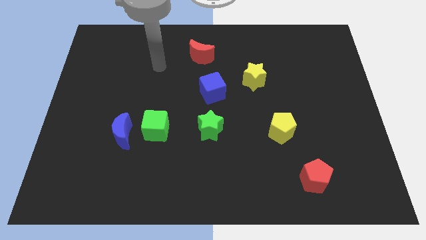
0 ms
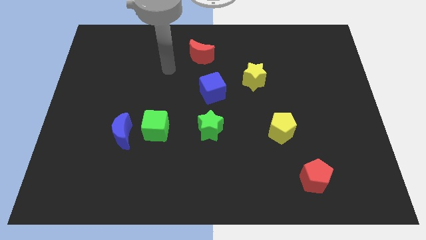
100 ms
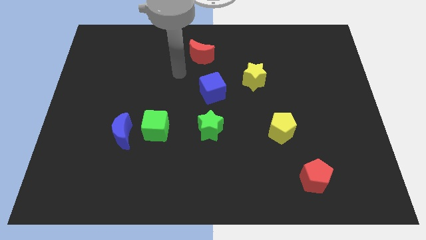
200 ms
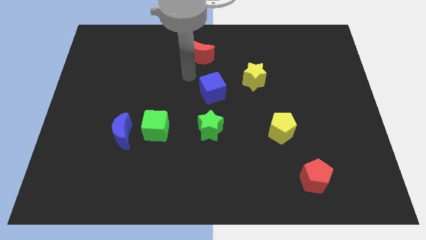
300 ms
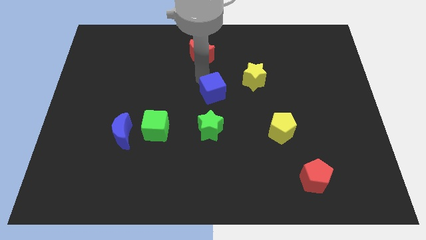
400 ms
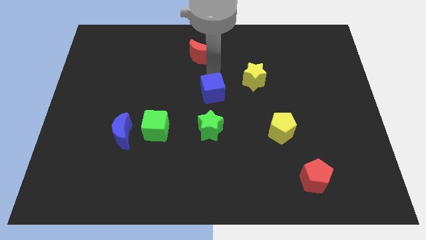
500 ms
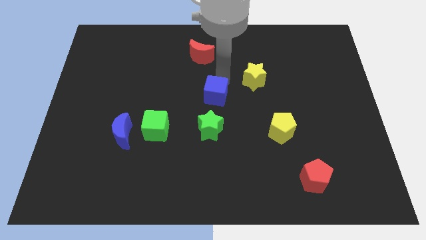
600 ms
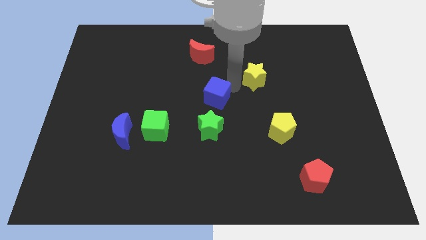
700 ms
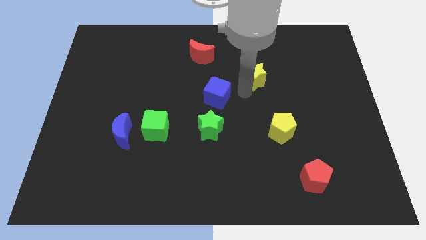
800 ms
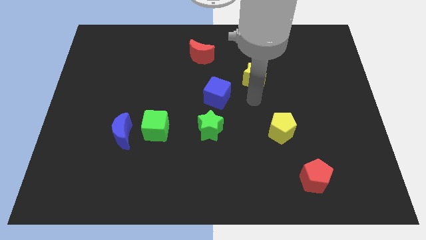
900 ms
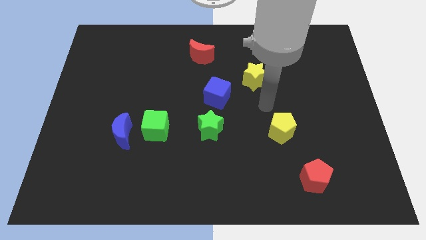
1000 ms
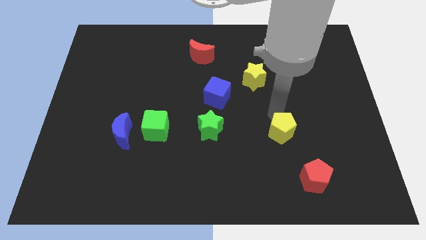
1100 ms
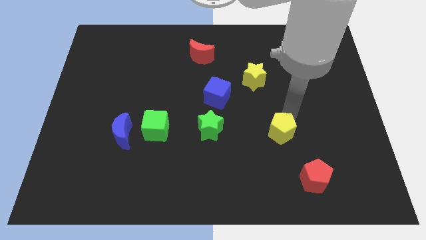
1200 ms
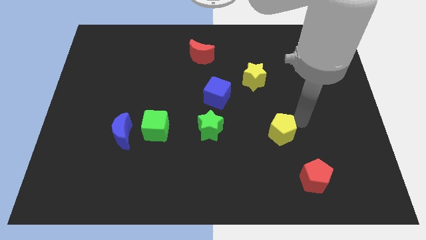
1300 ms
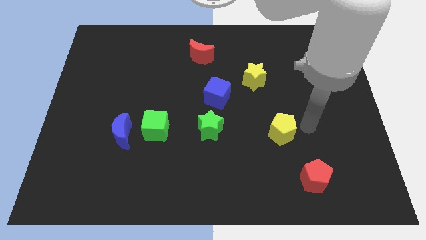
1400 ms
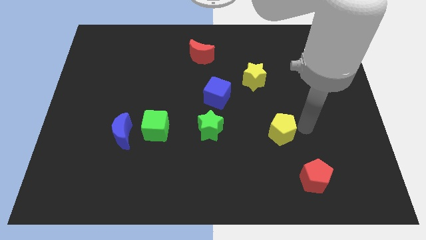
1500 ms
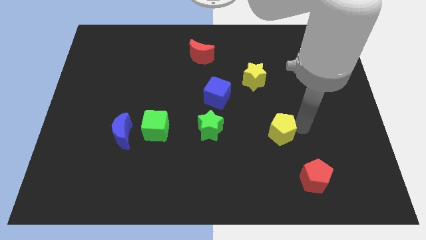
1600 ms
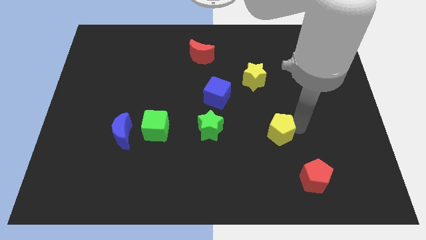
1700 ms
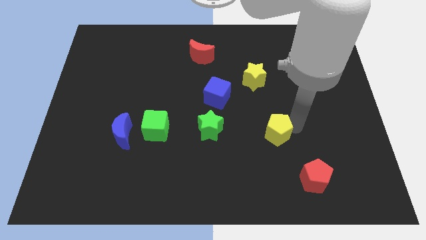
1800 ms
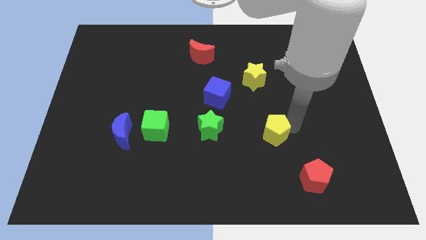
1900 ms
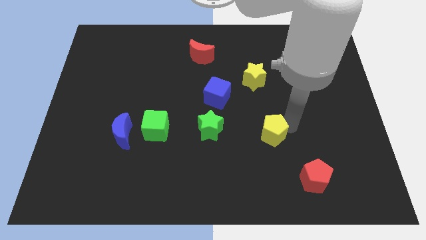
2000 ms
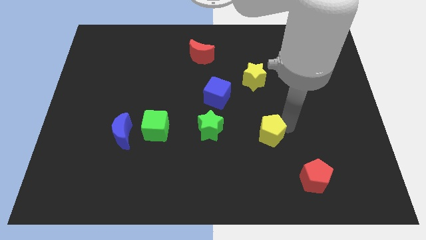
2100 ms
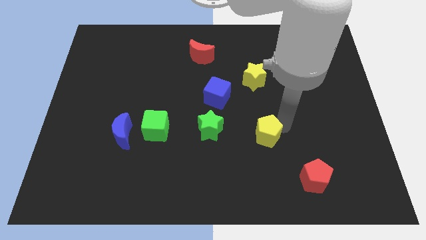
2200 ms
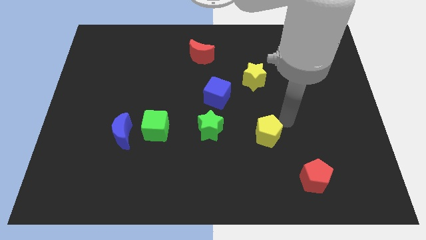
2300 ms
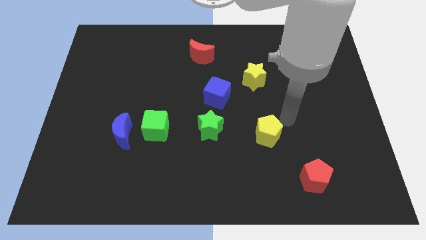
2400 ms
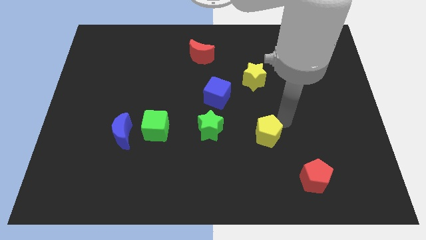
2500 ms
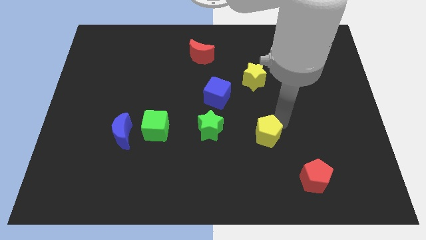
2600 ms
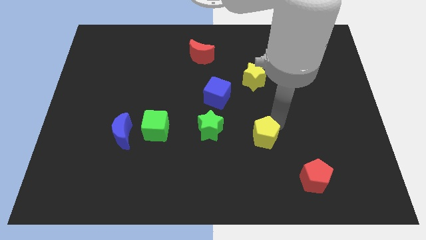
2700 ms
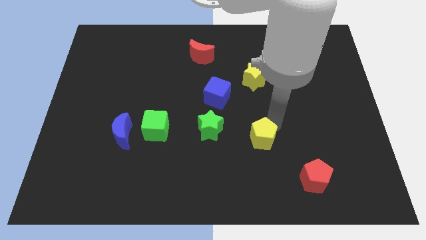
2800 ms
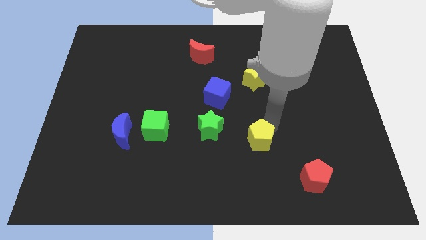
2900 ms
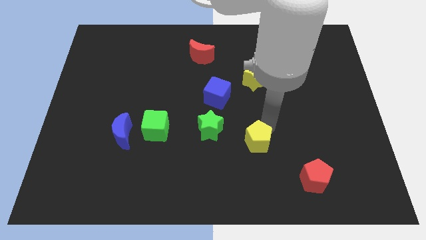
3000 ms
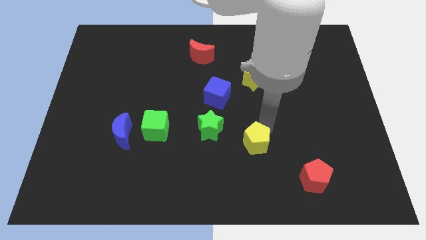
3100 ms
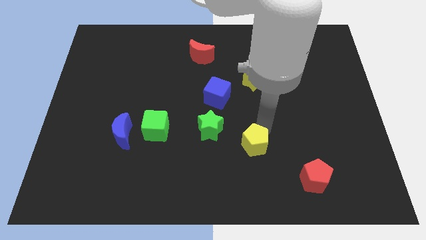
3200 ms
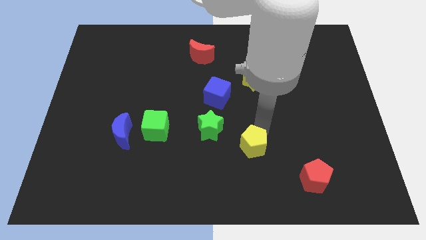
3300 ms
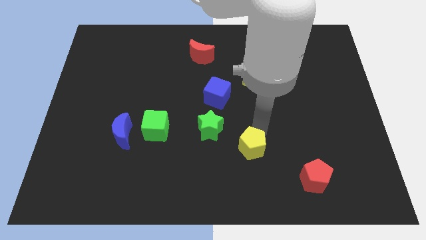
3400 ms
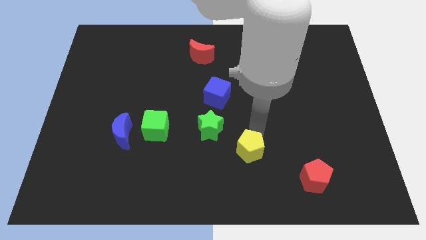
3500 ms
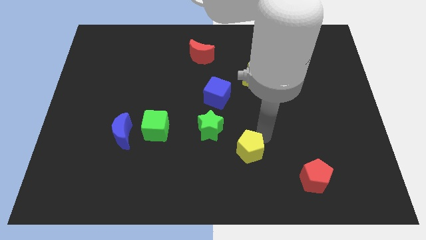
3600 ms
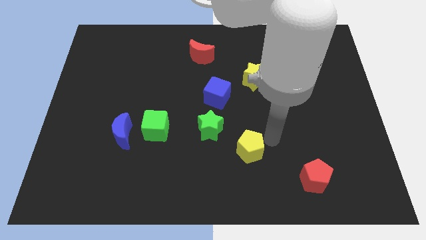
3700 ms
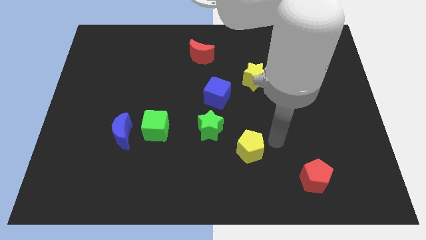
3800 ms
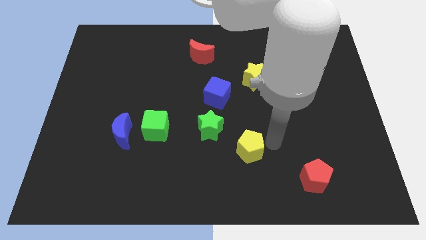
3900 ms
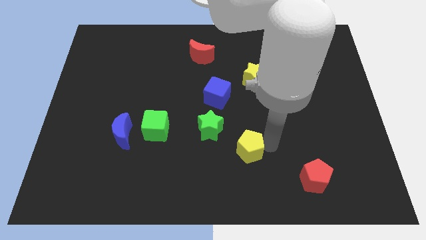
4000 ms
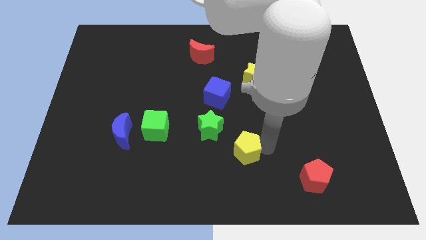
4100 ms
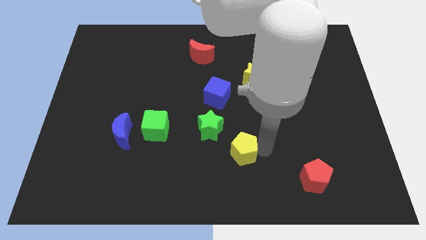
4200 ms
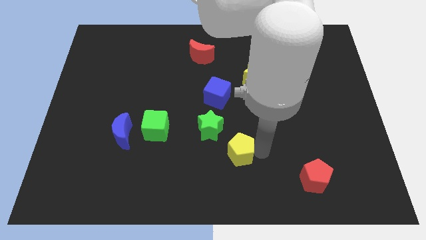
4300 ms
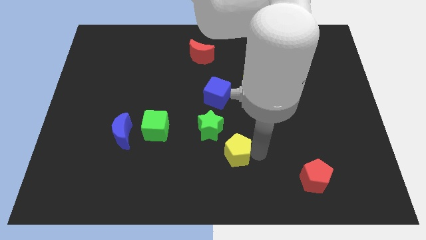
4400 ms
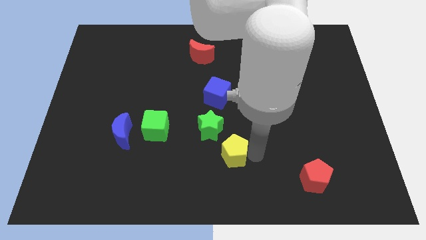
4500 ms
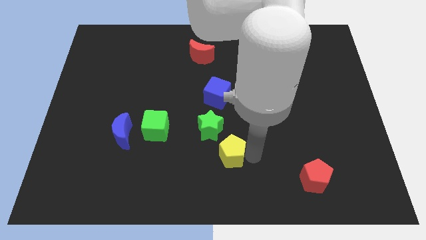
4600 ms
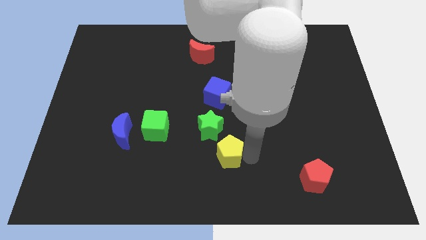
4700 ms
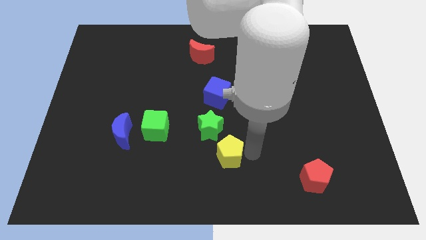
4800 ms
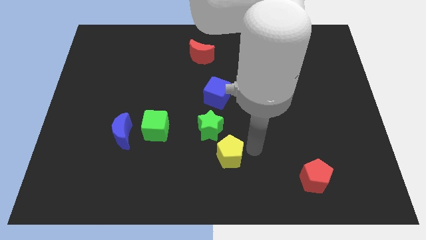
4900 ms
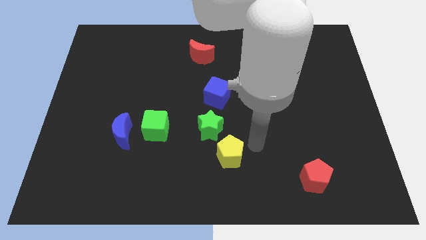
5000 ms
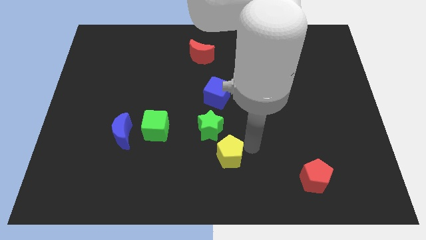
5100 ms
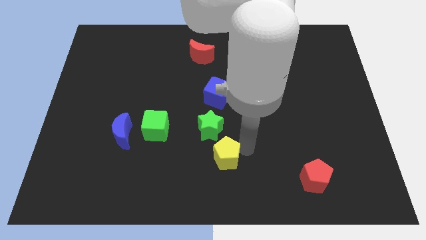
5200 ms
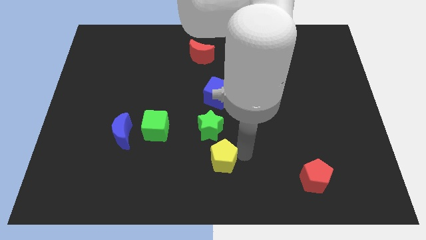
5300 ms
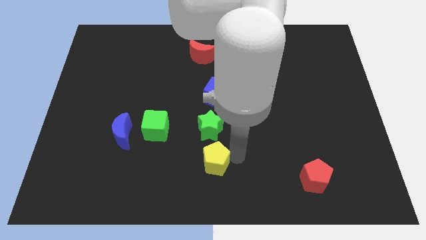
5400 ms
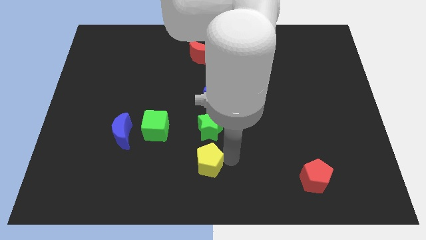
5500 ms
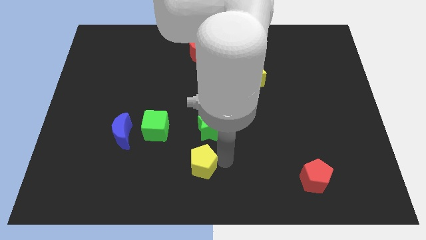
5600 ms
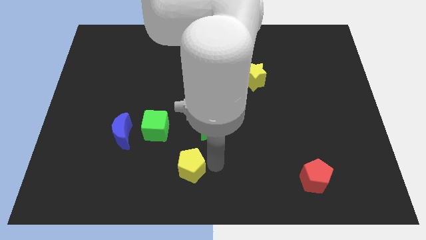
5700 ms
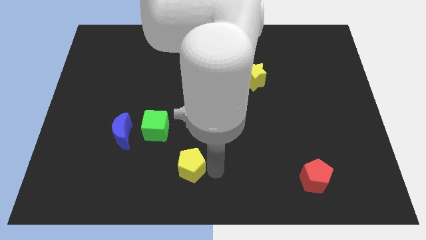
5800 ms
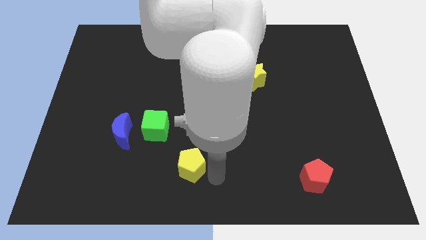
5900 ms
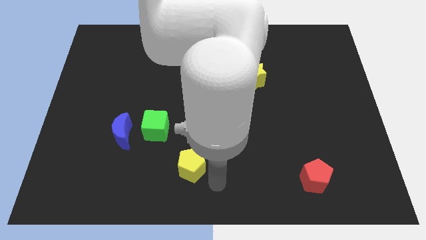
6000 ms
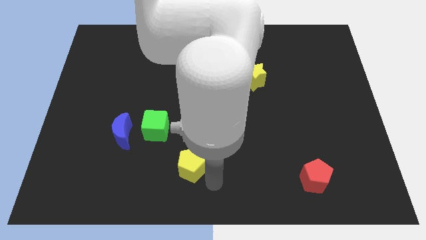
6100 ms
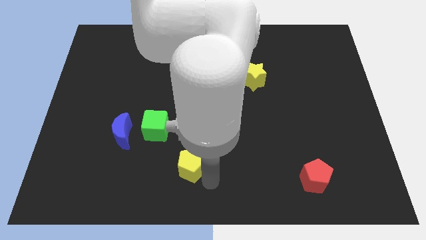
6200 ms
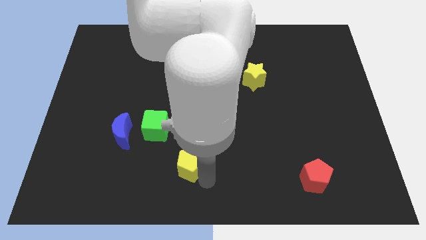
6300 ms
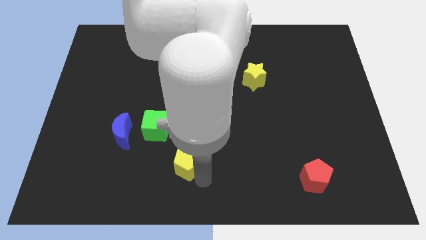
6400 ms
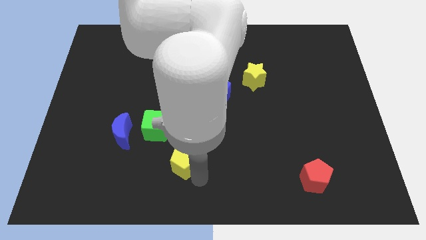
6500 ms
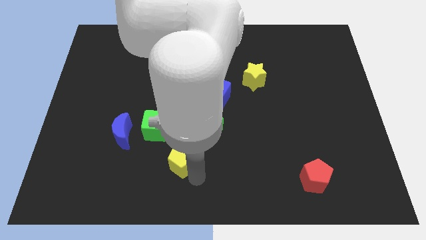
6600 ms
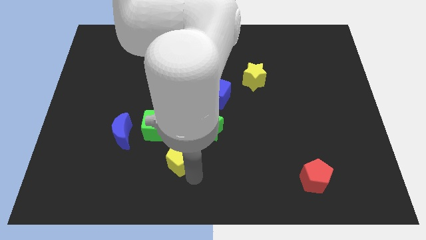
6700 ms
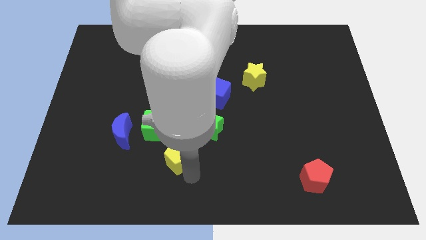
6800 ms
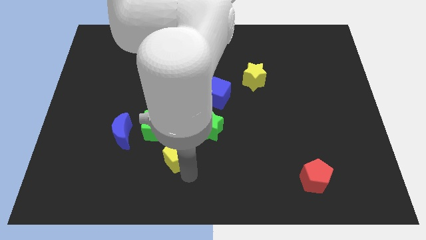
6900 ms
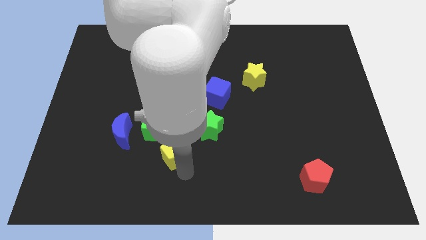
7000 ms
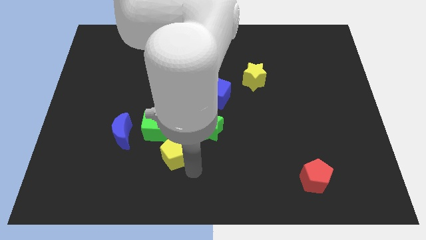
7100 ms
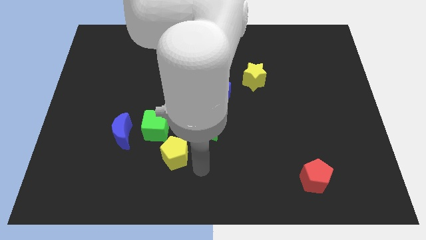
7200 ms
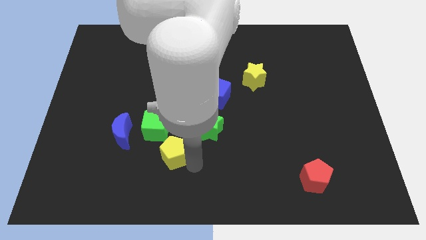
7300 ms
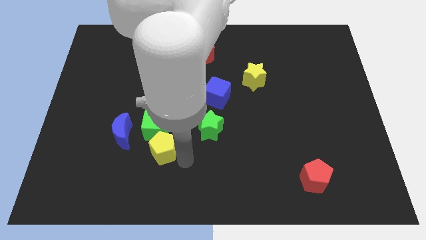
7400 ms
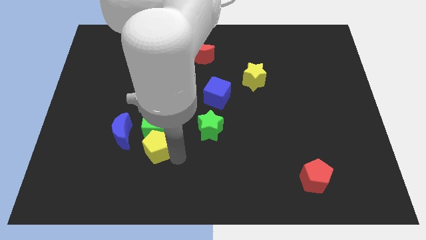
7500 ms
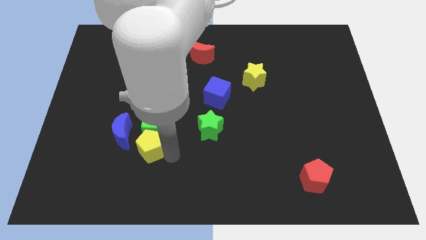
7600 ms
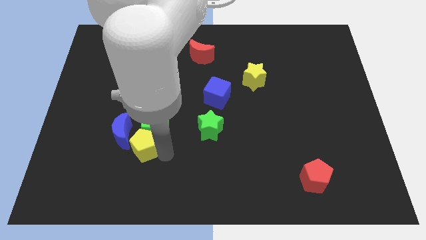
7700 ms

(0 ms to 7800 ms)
slide the yellow pentagon next to the blue moon
